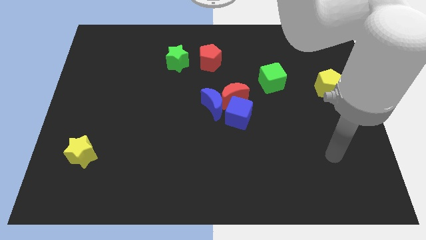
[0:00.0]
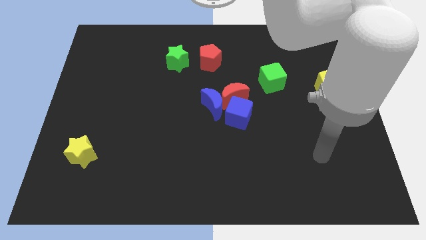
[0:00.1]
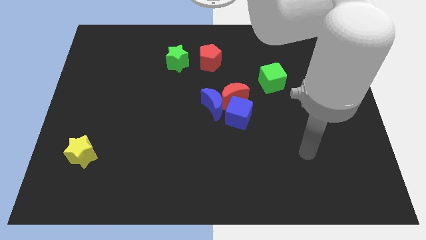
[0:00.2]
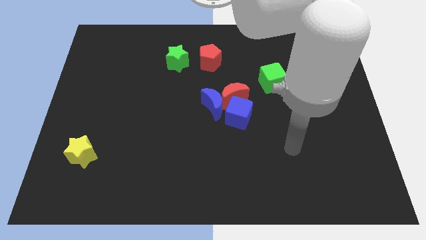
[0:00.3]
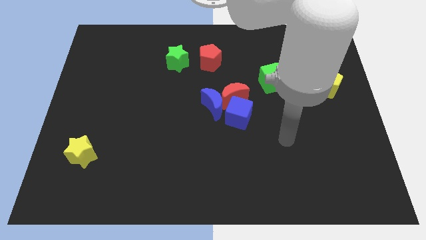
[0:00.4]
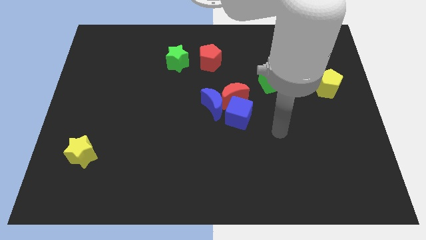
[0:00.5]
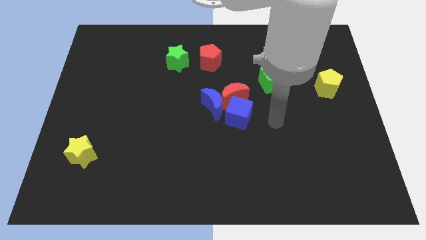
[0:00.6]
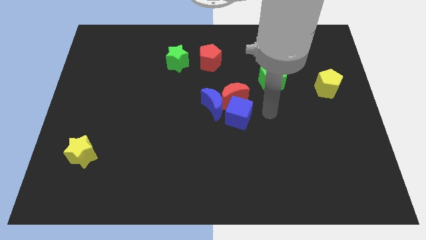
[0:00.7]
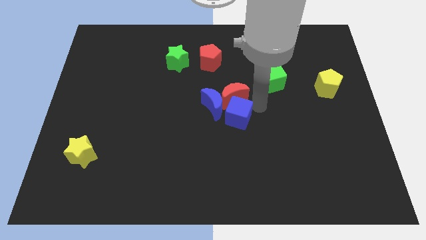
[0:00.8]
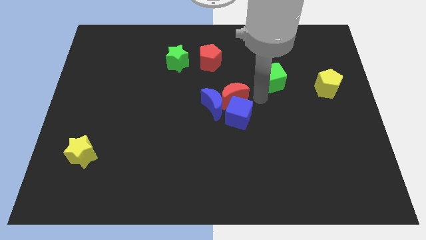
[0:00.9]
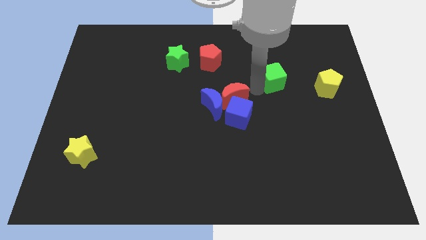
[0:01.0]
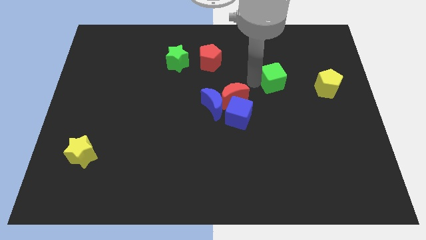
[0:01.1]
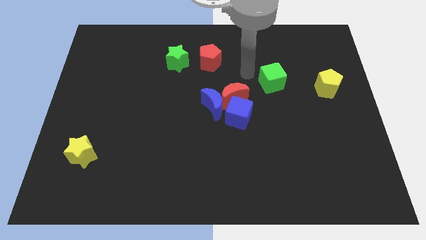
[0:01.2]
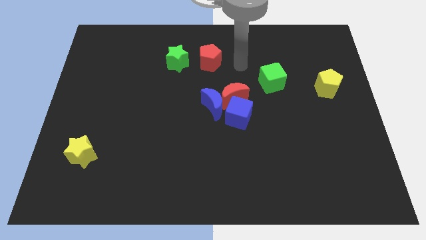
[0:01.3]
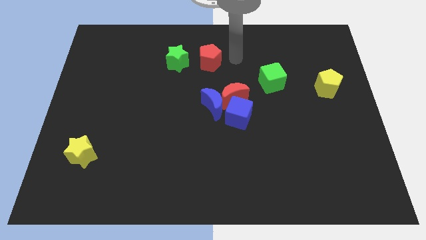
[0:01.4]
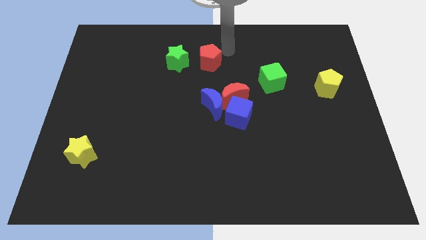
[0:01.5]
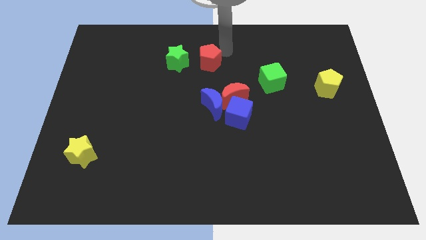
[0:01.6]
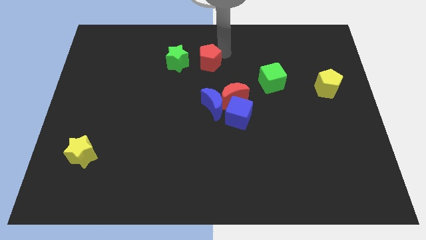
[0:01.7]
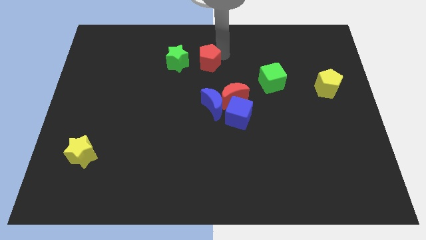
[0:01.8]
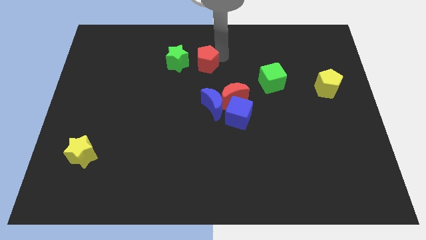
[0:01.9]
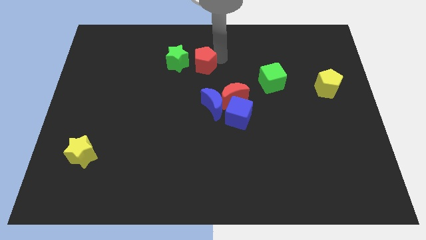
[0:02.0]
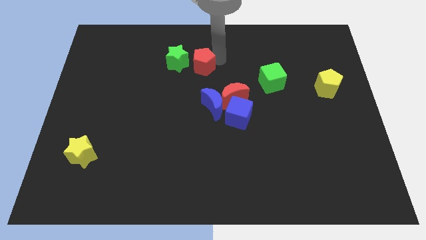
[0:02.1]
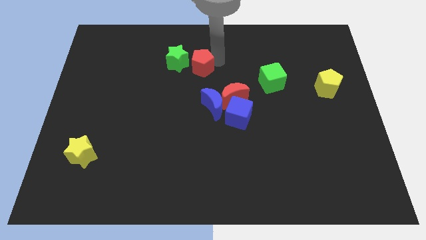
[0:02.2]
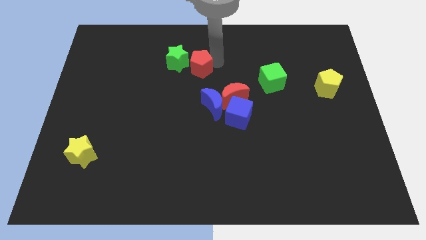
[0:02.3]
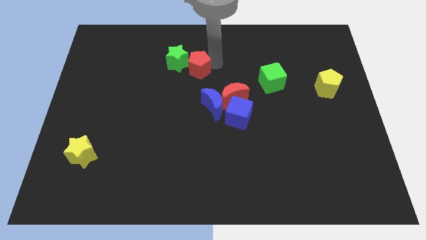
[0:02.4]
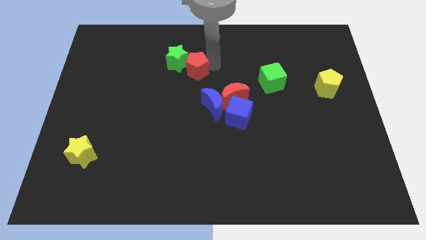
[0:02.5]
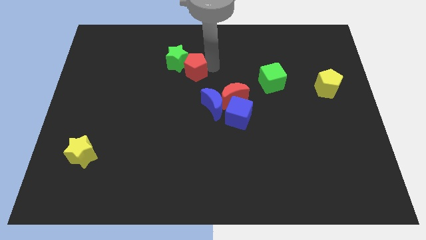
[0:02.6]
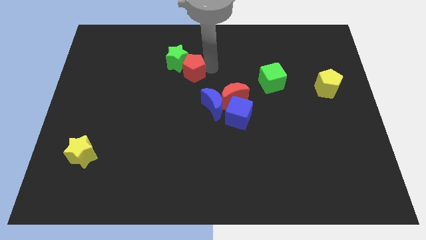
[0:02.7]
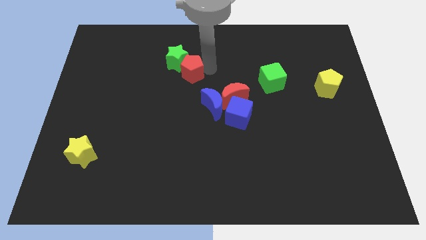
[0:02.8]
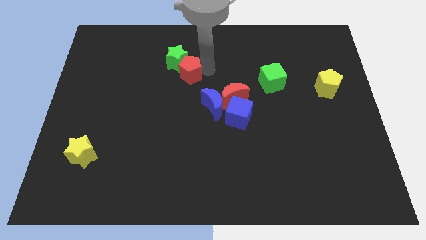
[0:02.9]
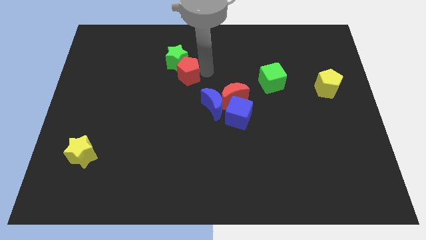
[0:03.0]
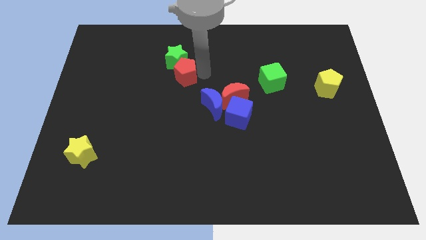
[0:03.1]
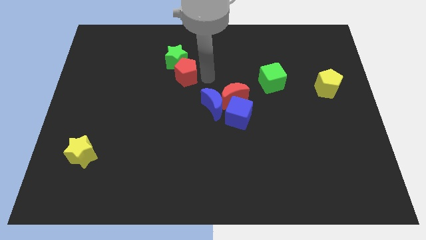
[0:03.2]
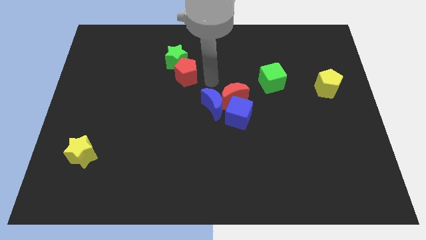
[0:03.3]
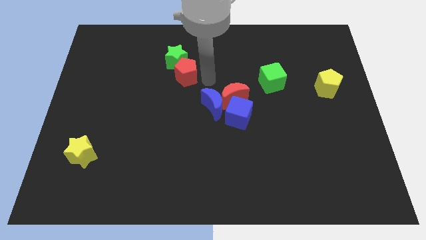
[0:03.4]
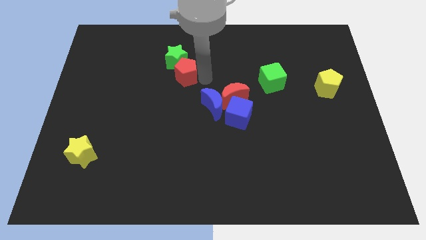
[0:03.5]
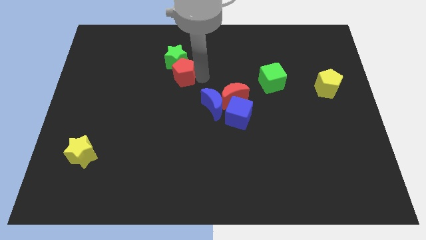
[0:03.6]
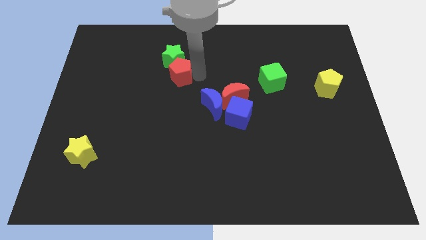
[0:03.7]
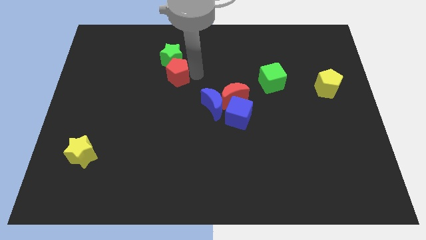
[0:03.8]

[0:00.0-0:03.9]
move the red pentagon a bit left

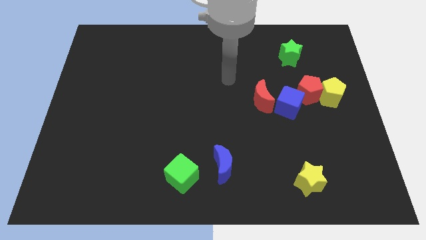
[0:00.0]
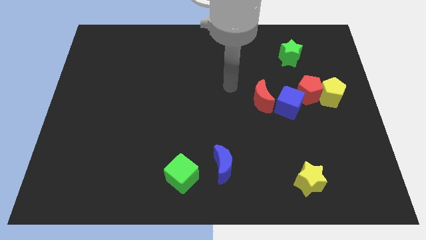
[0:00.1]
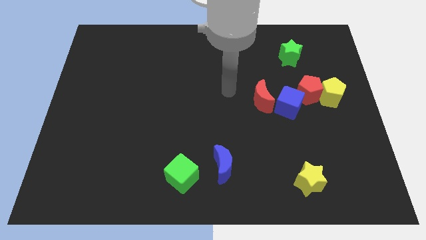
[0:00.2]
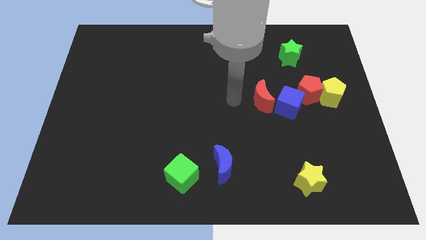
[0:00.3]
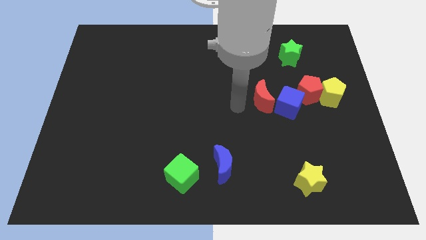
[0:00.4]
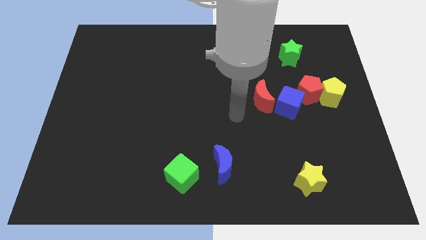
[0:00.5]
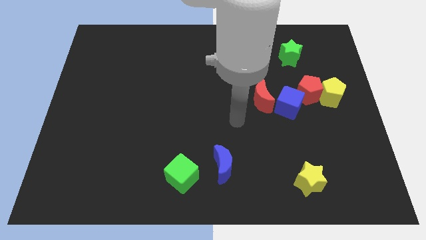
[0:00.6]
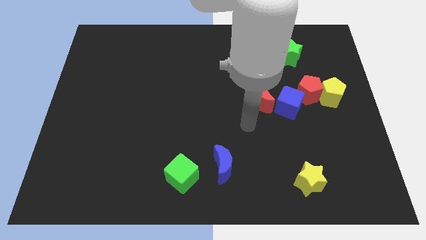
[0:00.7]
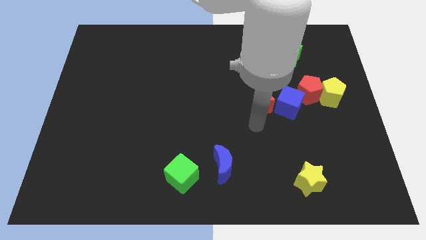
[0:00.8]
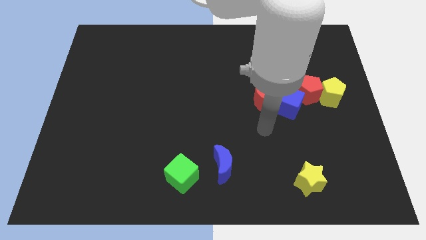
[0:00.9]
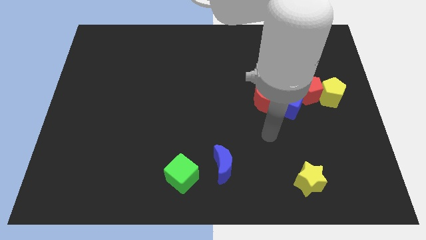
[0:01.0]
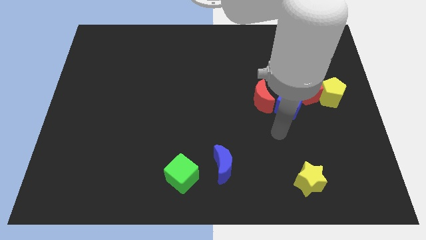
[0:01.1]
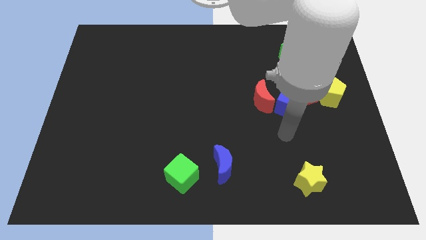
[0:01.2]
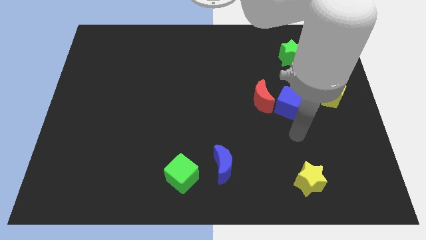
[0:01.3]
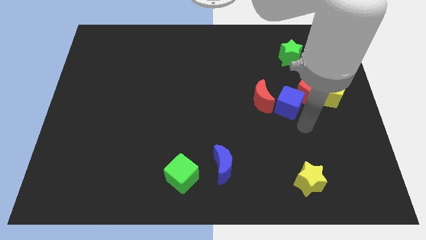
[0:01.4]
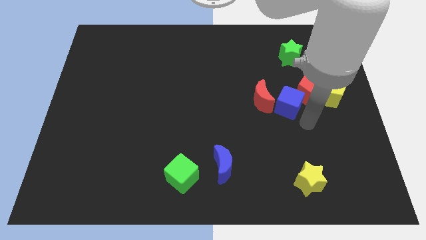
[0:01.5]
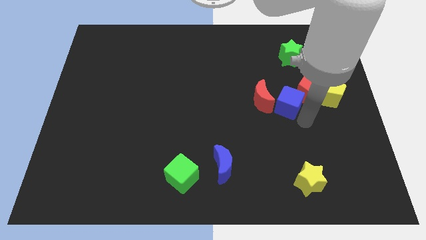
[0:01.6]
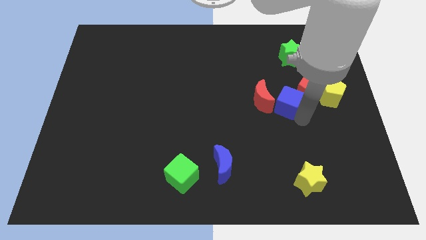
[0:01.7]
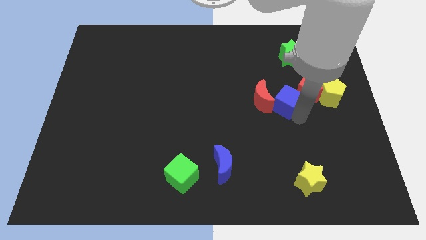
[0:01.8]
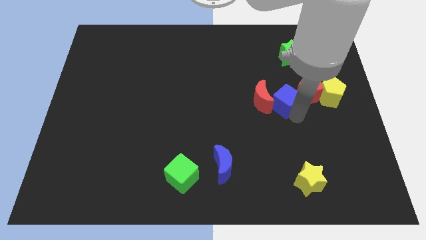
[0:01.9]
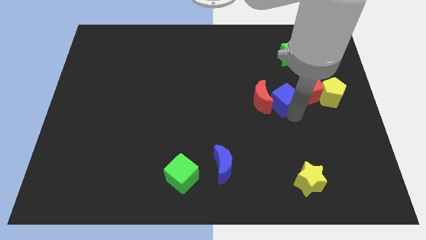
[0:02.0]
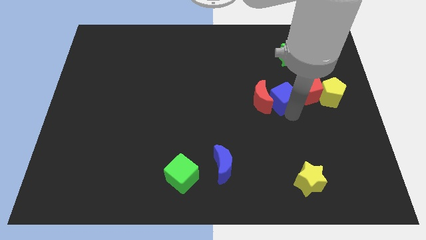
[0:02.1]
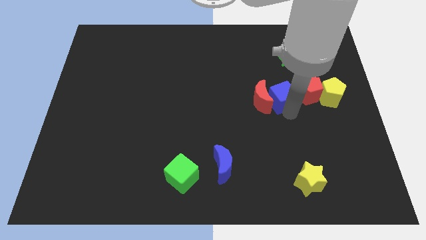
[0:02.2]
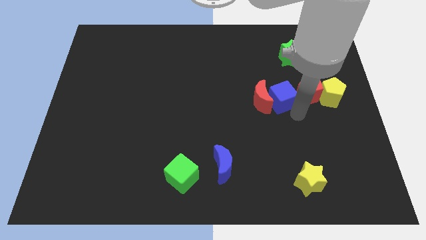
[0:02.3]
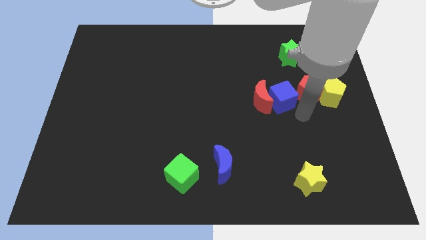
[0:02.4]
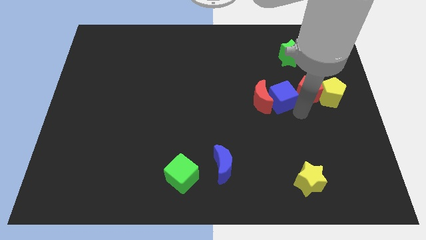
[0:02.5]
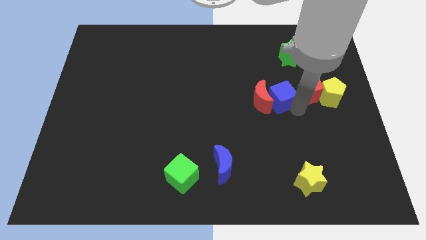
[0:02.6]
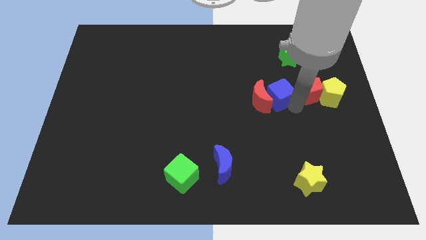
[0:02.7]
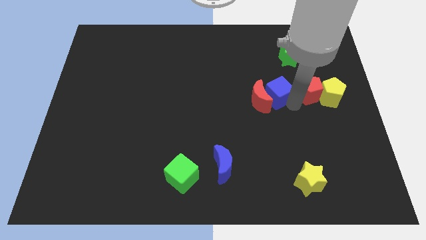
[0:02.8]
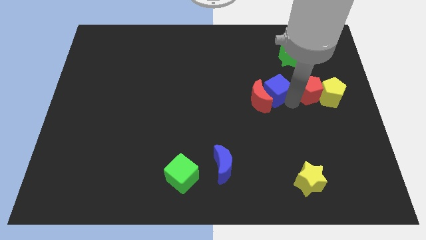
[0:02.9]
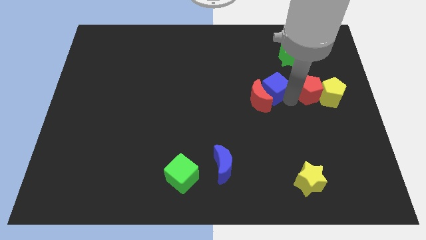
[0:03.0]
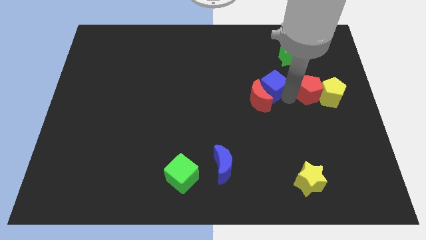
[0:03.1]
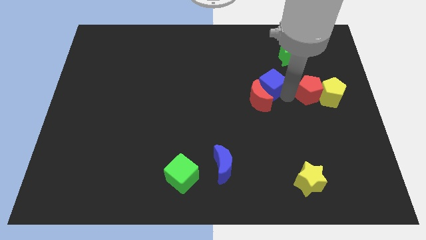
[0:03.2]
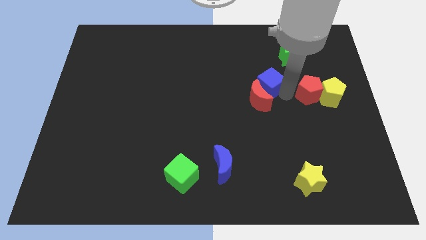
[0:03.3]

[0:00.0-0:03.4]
move the blue cube diagonally upwards and to the left a little bit

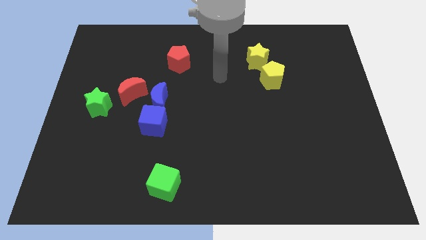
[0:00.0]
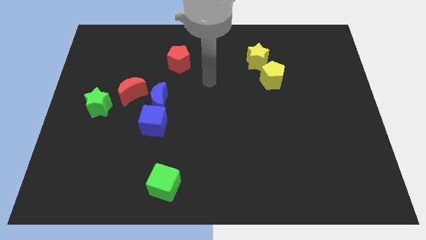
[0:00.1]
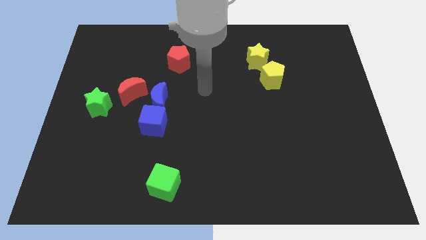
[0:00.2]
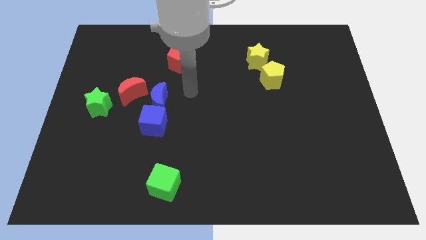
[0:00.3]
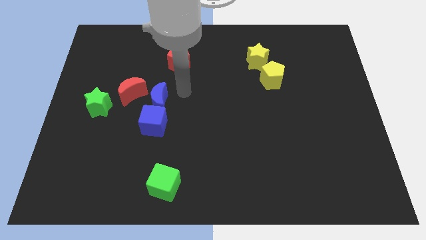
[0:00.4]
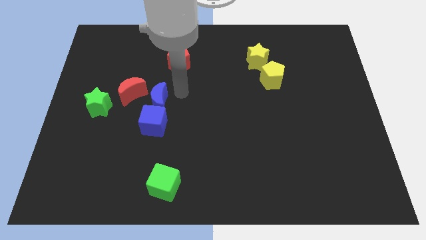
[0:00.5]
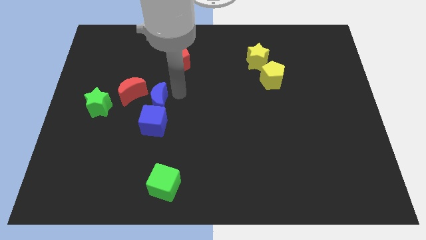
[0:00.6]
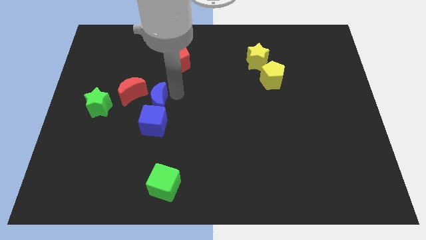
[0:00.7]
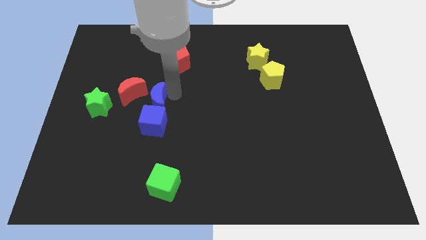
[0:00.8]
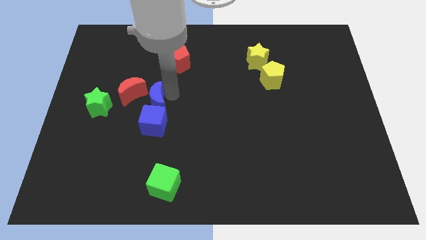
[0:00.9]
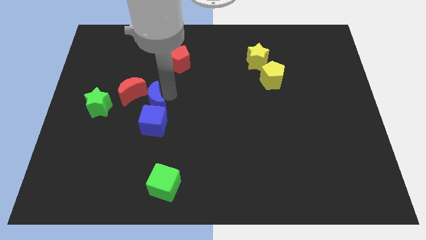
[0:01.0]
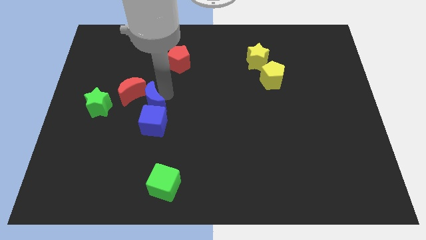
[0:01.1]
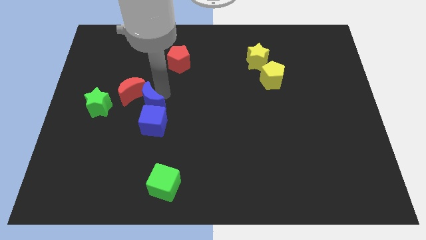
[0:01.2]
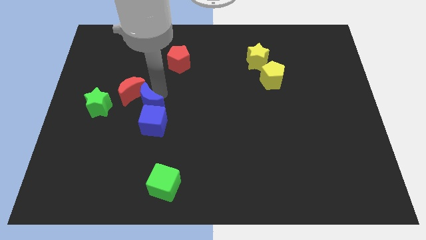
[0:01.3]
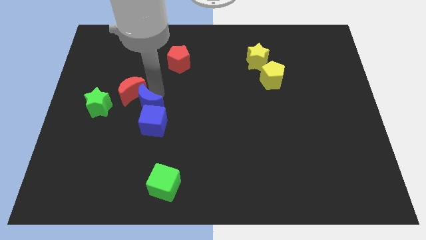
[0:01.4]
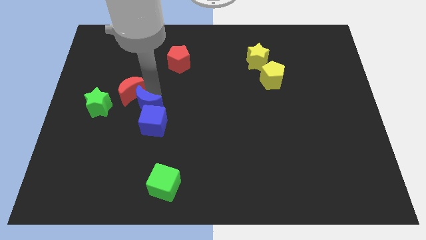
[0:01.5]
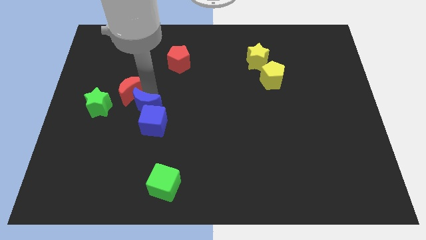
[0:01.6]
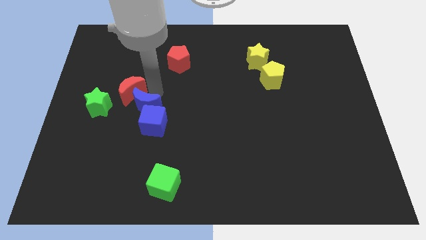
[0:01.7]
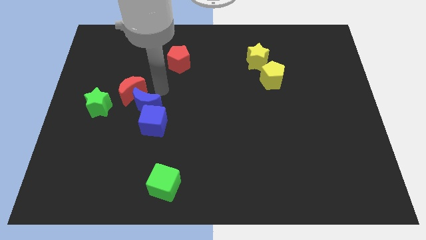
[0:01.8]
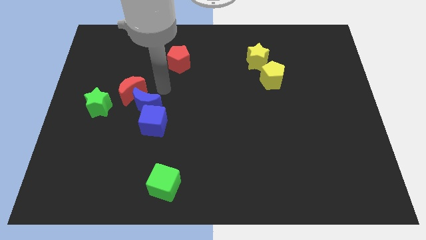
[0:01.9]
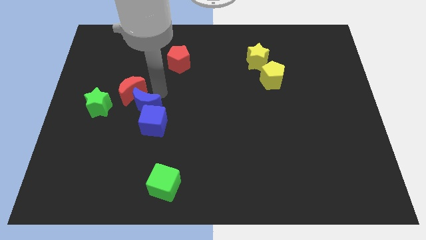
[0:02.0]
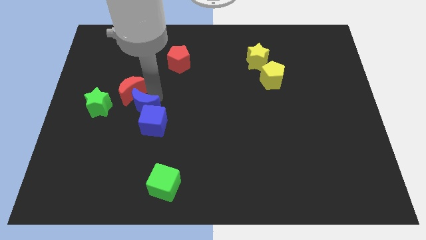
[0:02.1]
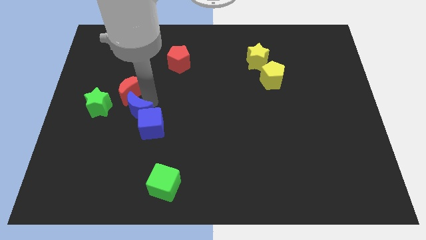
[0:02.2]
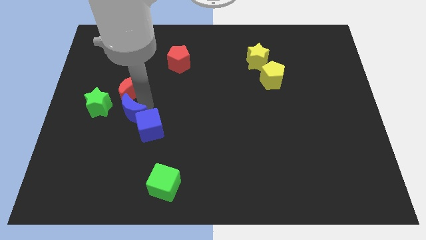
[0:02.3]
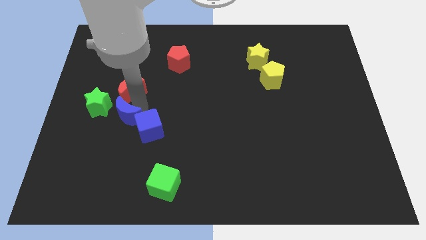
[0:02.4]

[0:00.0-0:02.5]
move the blue moon diagonally downwards and to the left a little
